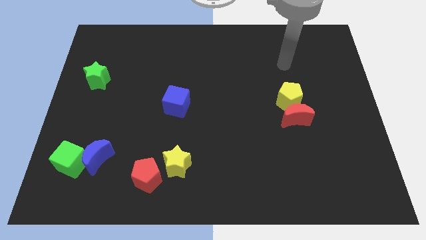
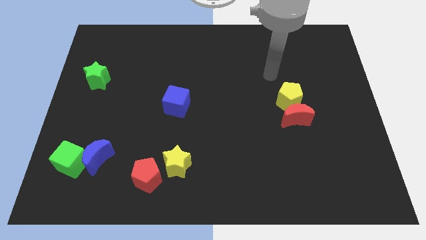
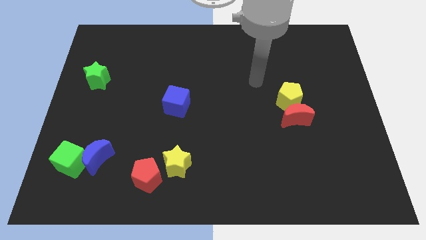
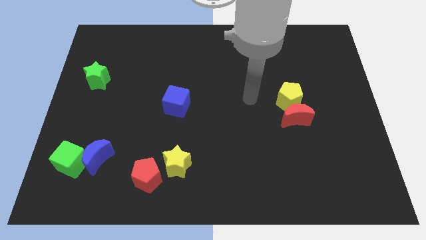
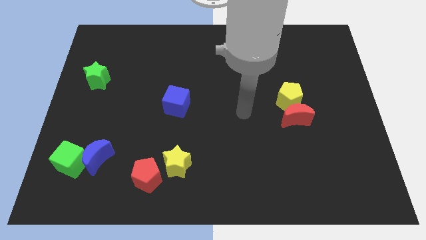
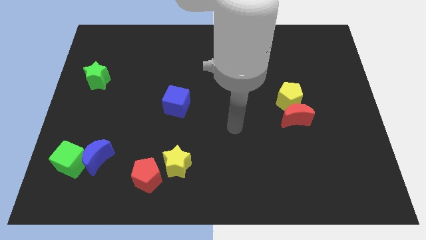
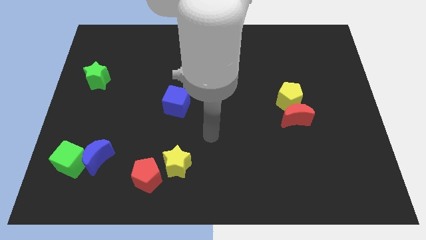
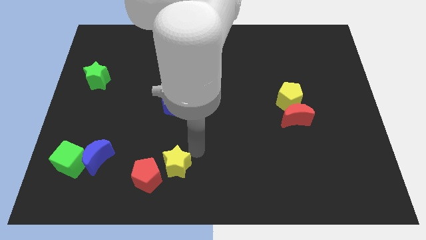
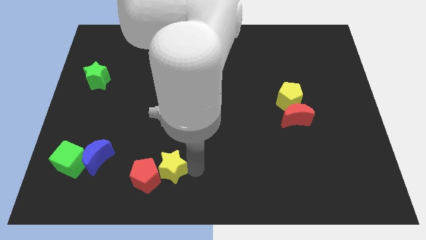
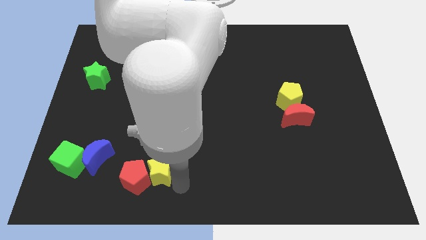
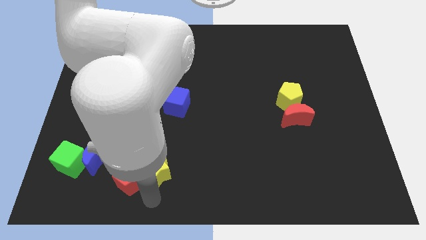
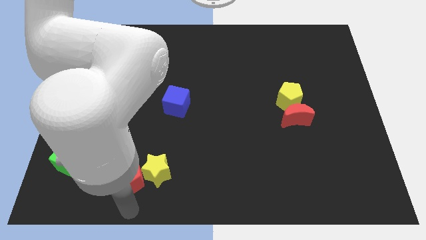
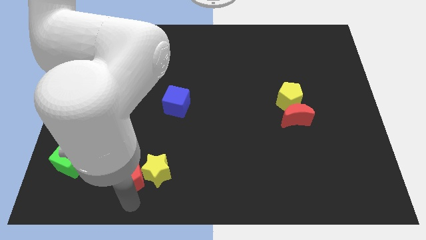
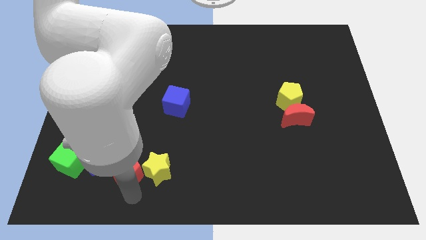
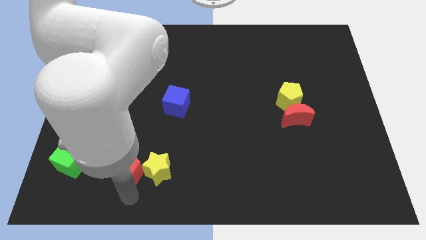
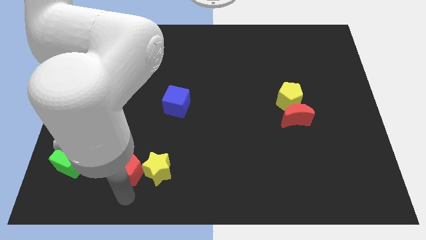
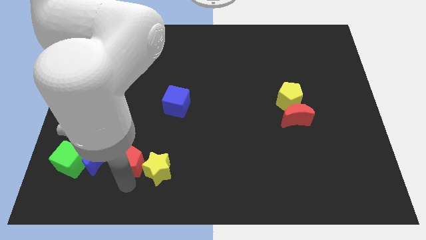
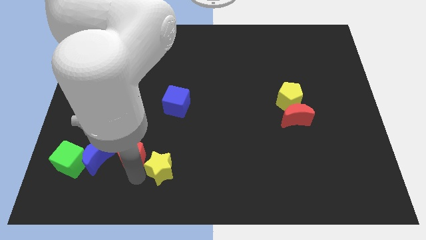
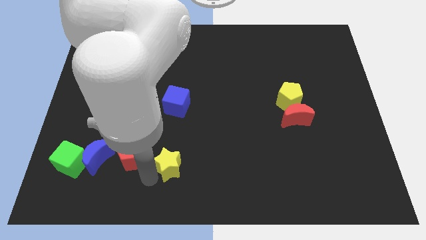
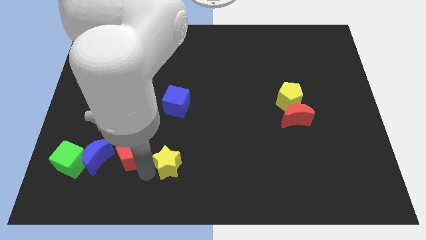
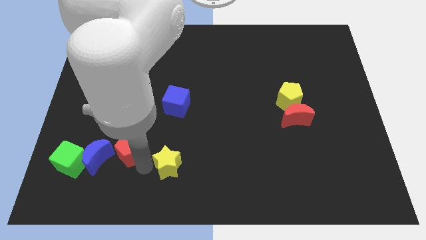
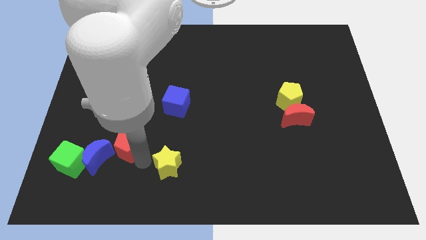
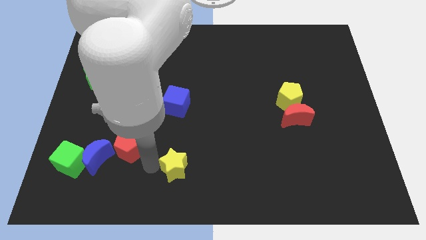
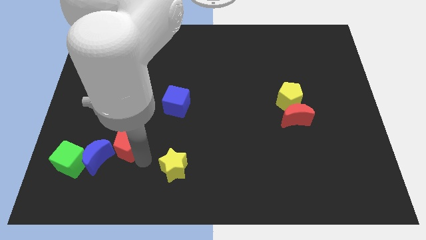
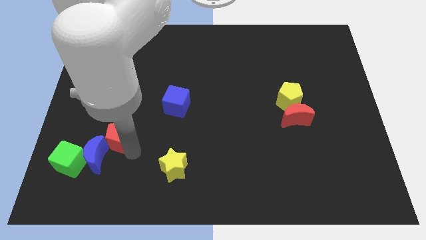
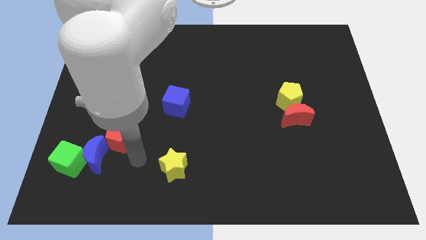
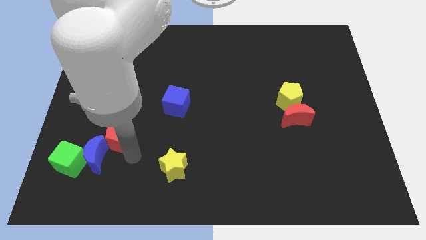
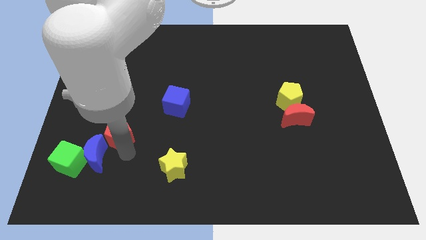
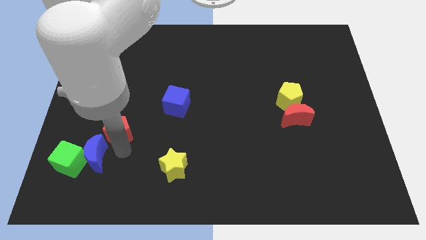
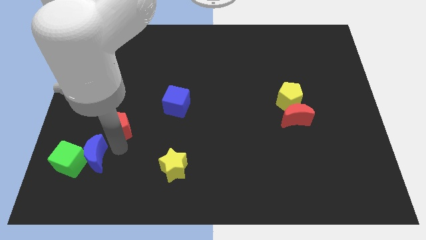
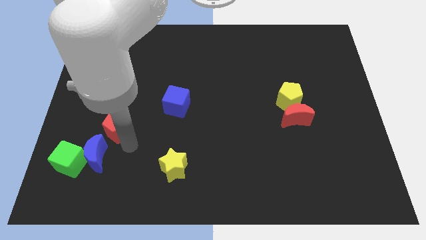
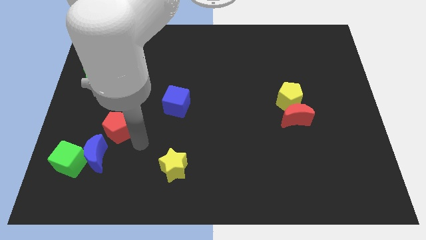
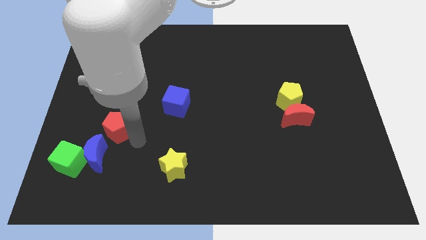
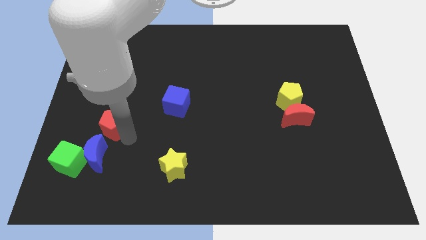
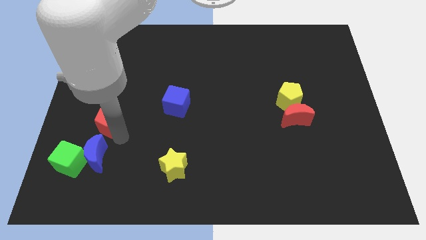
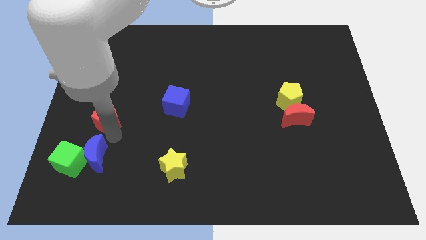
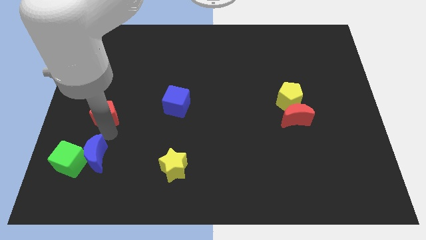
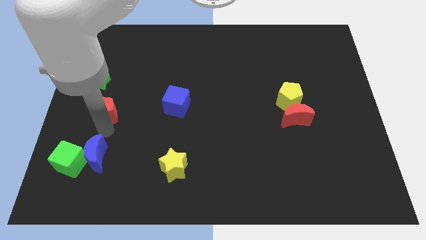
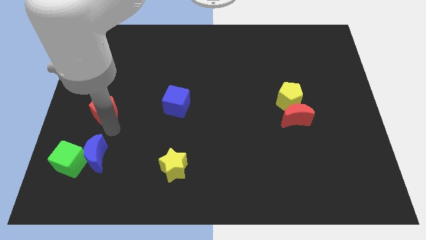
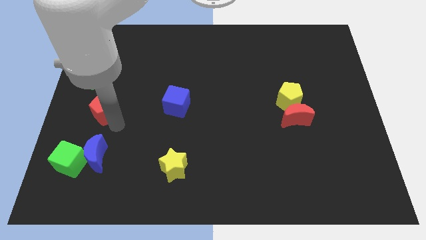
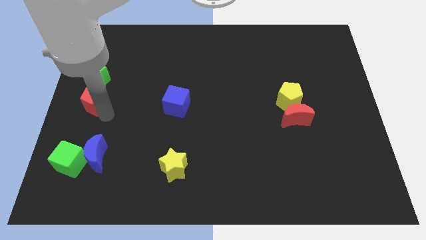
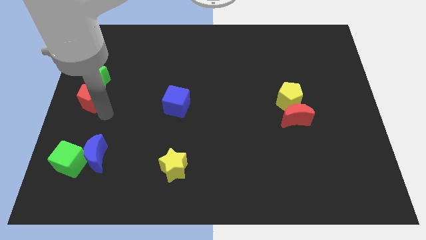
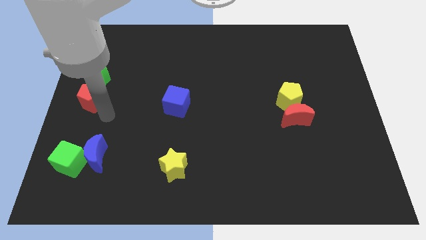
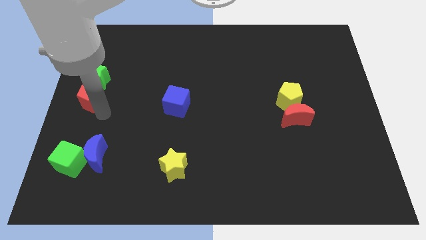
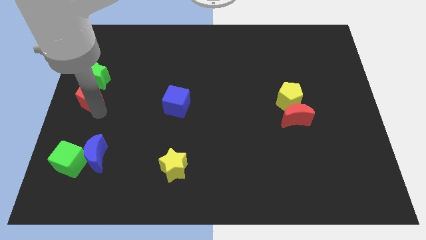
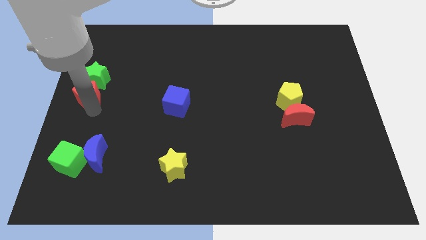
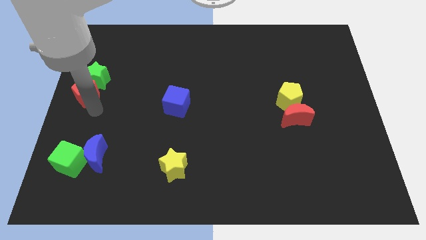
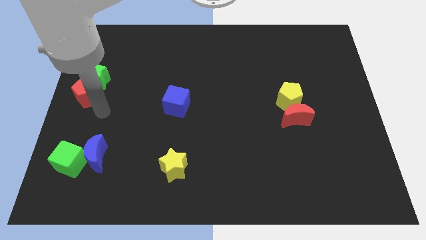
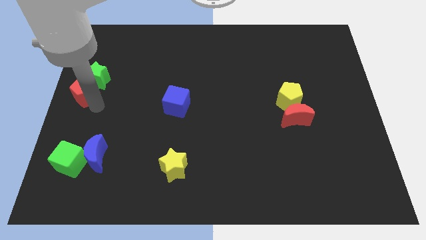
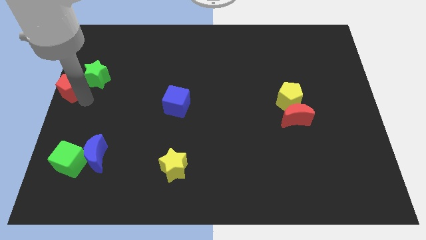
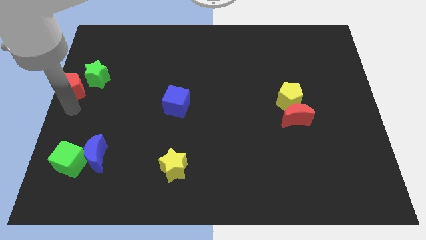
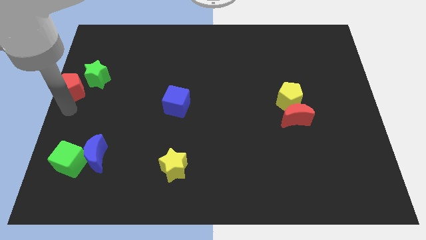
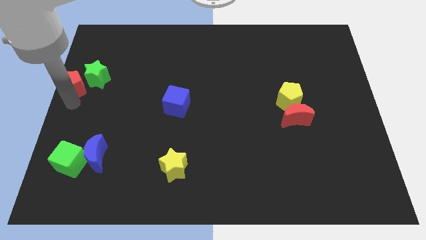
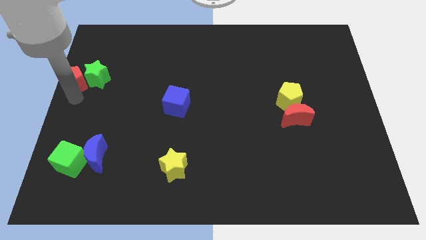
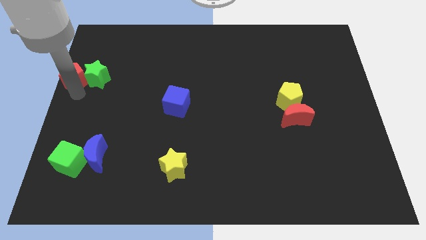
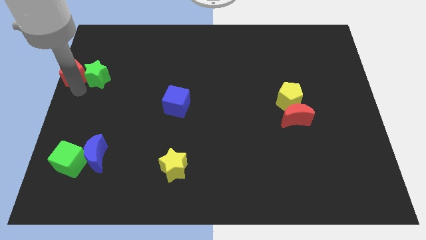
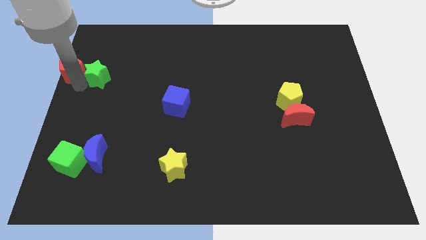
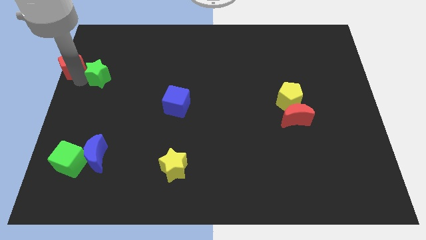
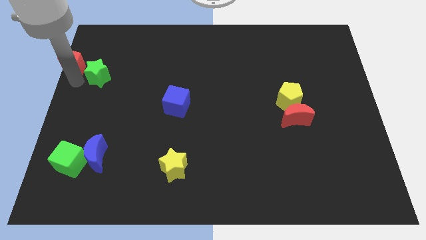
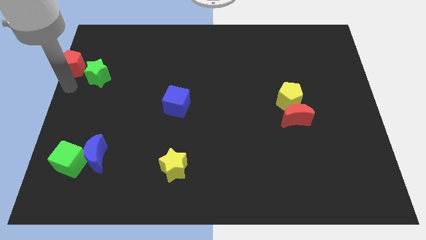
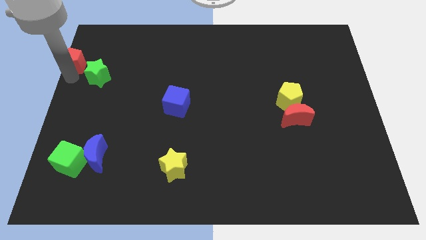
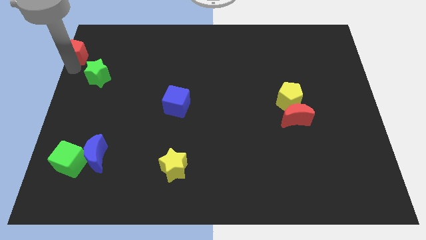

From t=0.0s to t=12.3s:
put the red pentagon to the upper left corner
